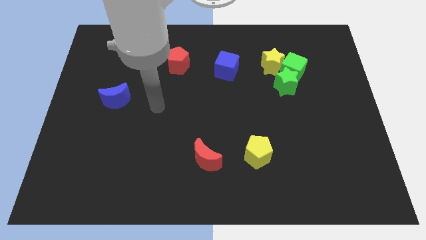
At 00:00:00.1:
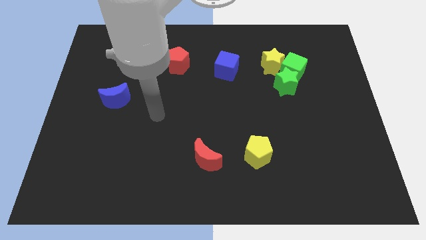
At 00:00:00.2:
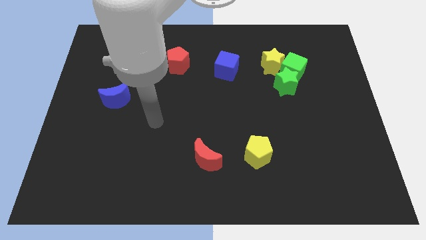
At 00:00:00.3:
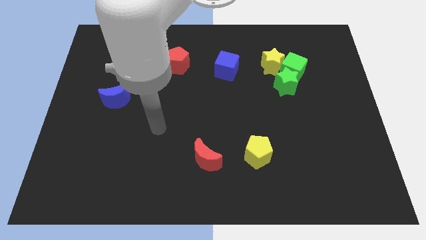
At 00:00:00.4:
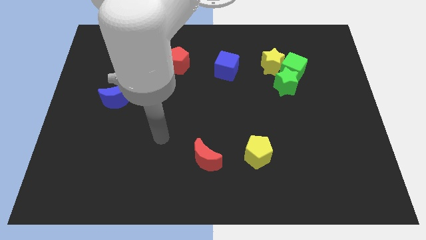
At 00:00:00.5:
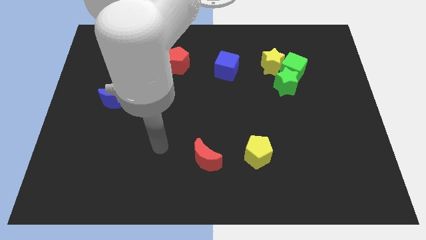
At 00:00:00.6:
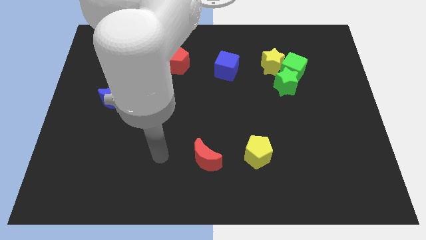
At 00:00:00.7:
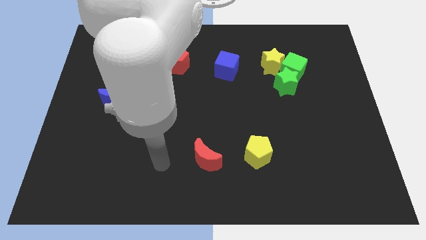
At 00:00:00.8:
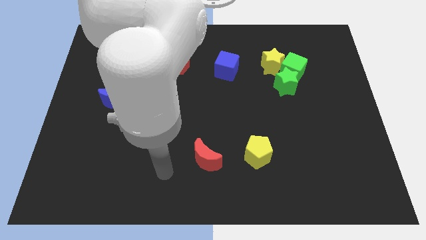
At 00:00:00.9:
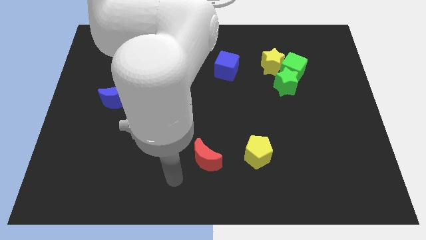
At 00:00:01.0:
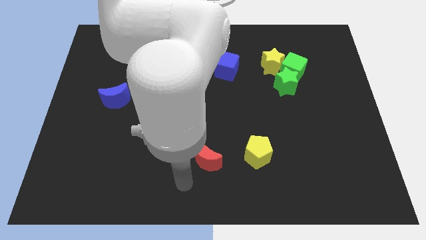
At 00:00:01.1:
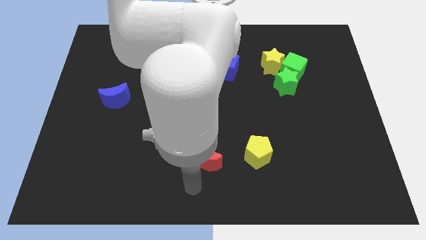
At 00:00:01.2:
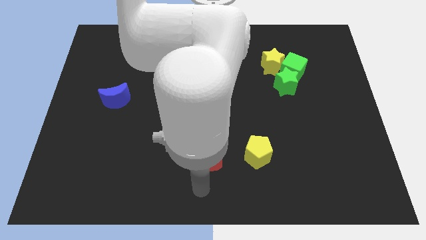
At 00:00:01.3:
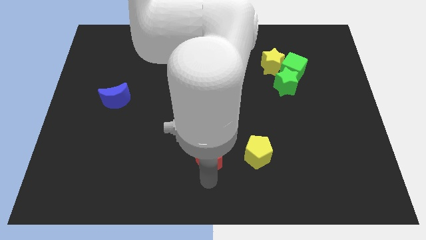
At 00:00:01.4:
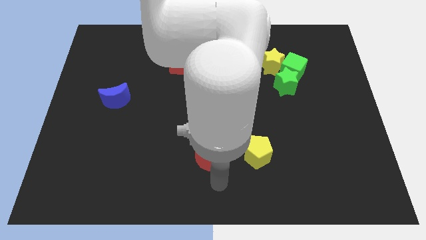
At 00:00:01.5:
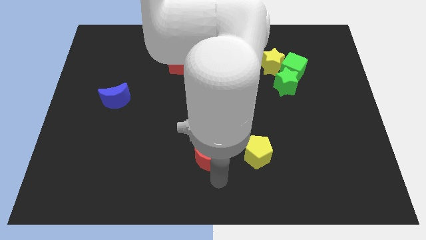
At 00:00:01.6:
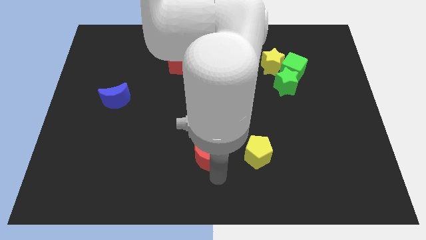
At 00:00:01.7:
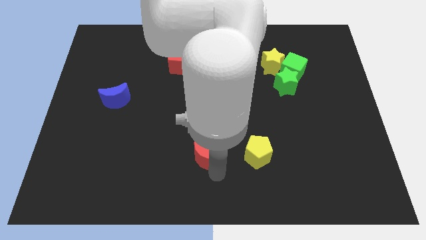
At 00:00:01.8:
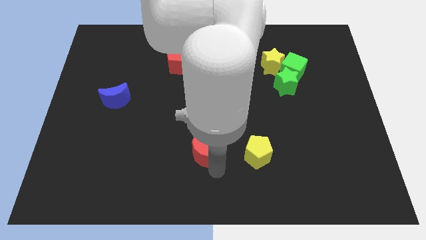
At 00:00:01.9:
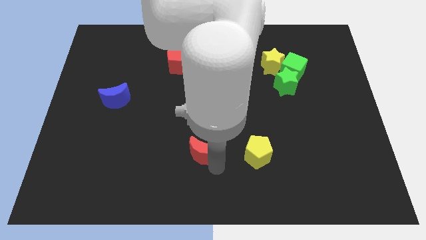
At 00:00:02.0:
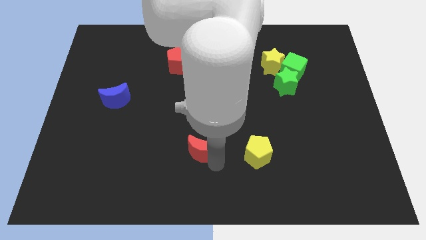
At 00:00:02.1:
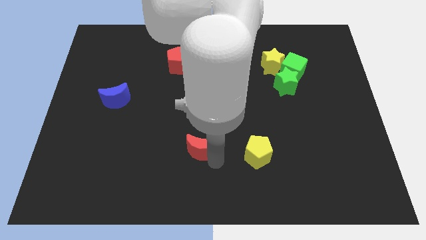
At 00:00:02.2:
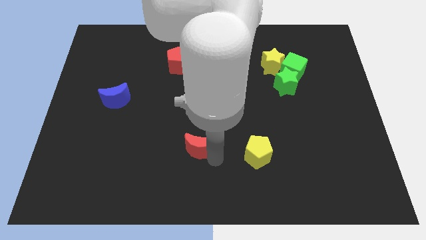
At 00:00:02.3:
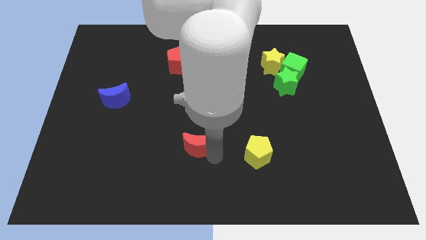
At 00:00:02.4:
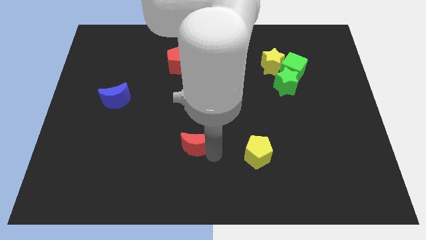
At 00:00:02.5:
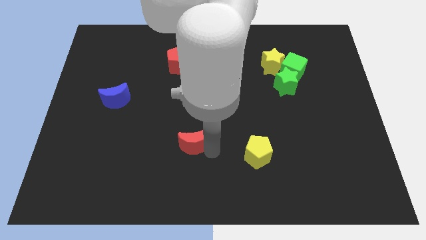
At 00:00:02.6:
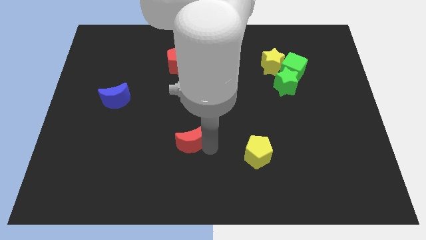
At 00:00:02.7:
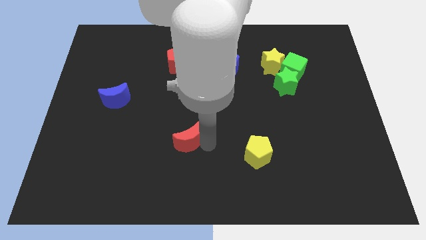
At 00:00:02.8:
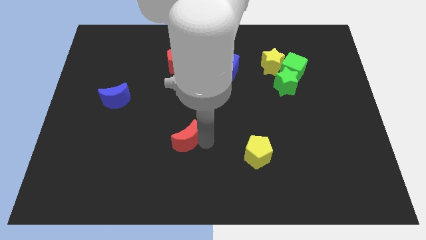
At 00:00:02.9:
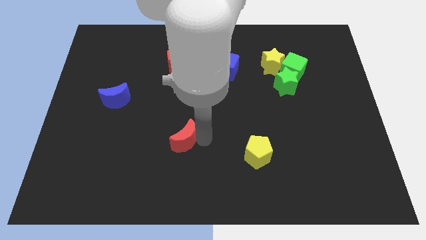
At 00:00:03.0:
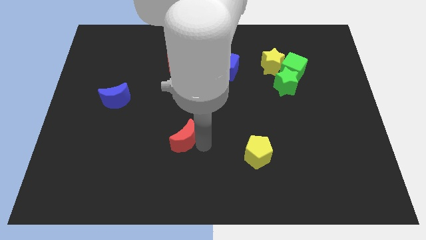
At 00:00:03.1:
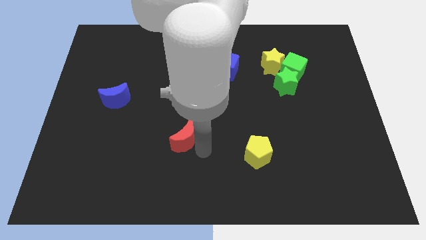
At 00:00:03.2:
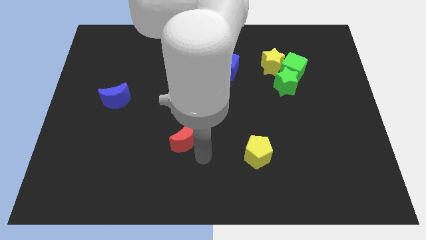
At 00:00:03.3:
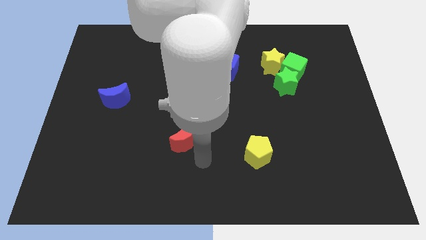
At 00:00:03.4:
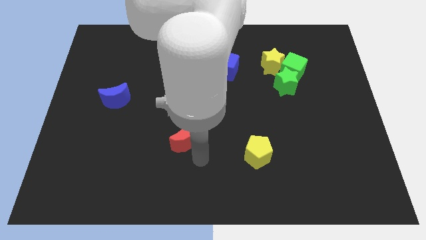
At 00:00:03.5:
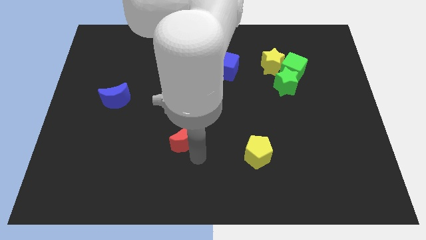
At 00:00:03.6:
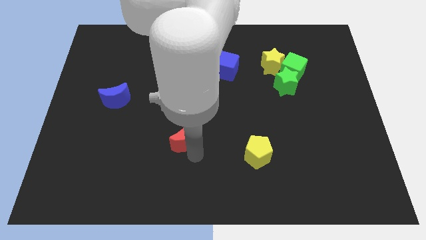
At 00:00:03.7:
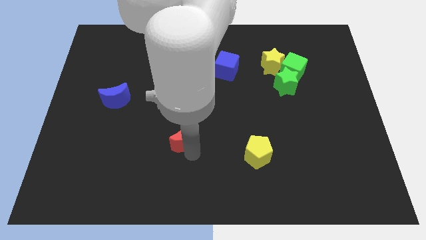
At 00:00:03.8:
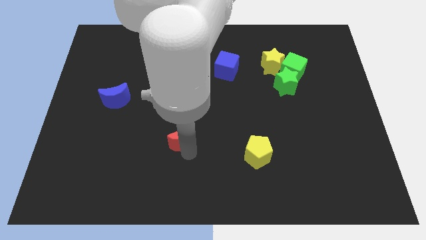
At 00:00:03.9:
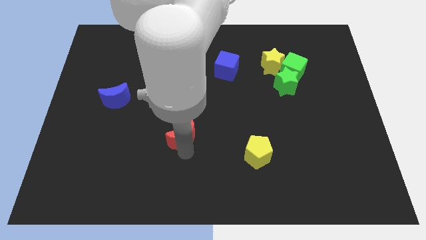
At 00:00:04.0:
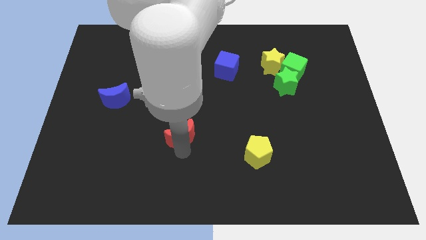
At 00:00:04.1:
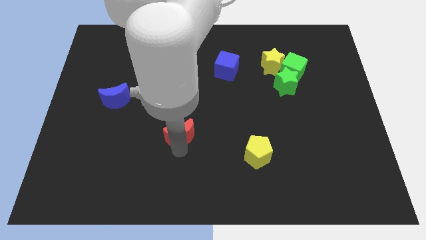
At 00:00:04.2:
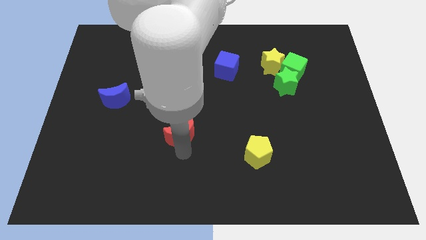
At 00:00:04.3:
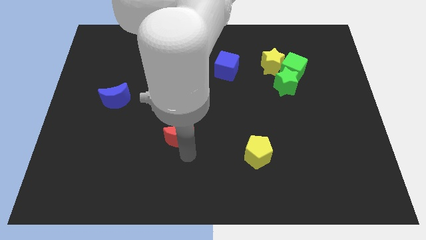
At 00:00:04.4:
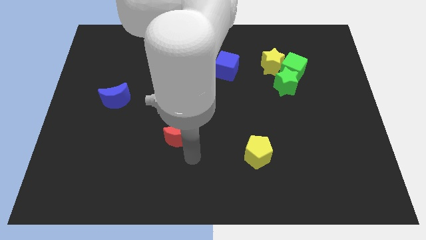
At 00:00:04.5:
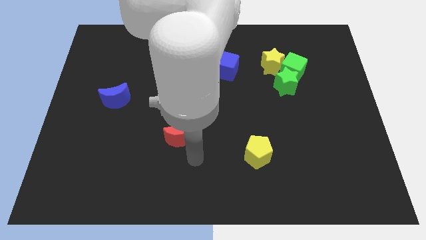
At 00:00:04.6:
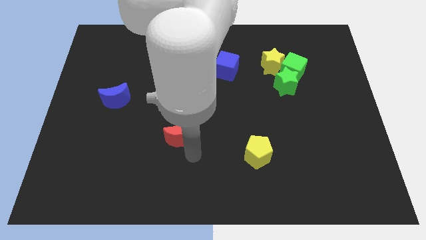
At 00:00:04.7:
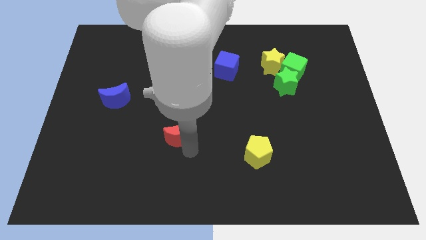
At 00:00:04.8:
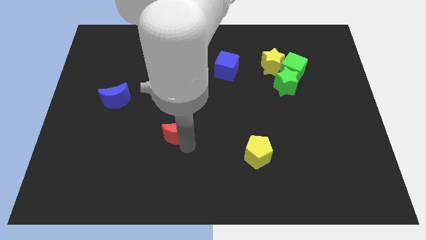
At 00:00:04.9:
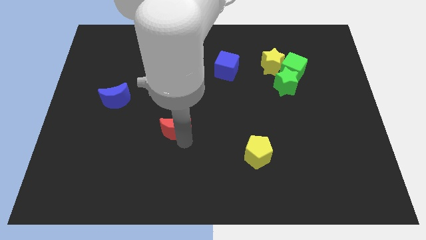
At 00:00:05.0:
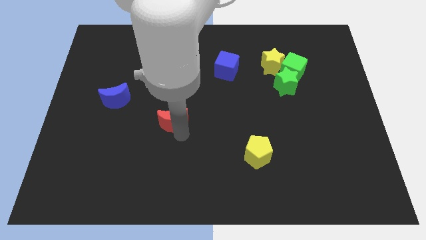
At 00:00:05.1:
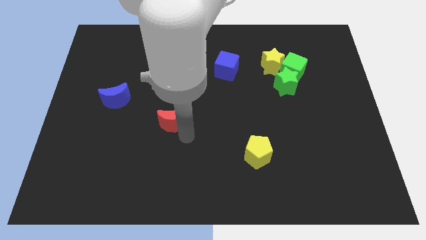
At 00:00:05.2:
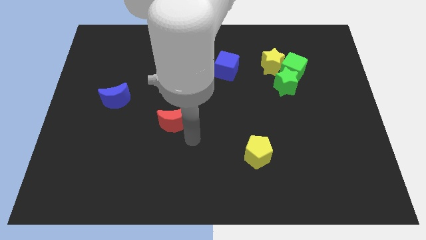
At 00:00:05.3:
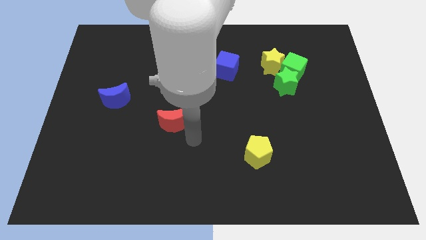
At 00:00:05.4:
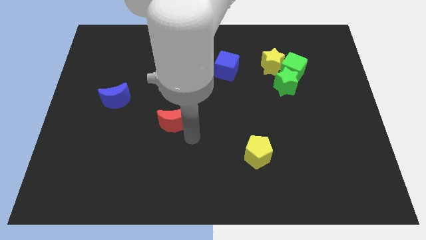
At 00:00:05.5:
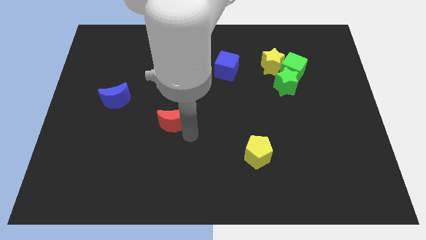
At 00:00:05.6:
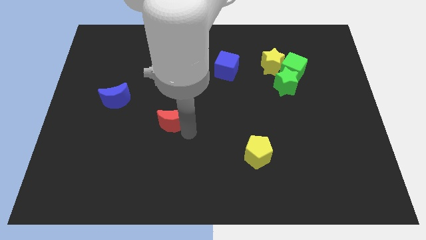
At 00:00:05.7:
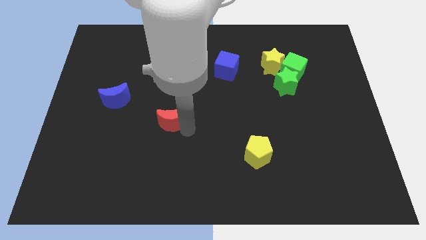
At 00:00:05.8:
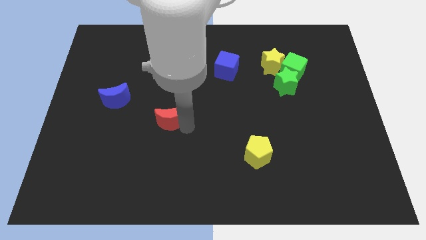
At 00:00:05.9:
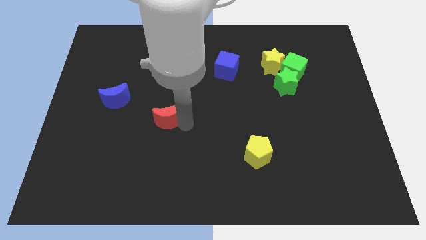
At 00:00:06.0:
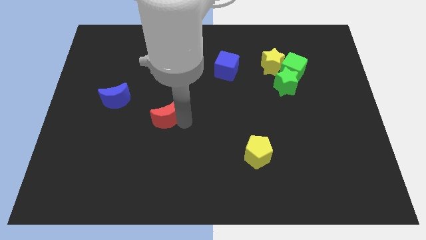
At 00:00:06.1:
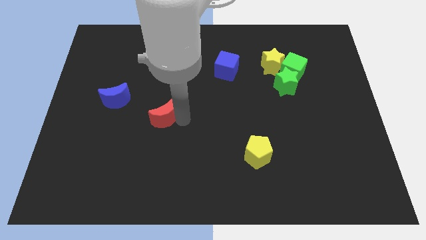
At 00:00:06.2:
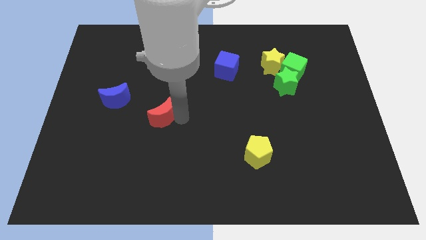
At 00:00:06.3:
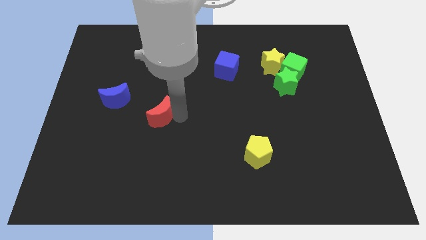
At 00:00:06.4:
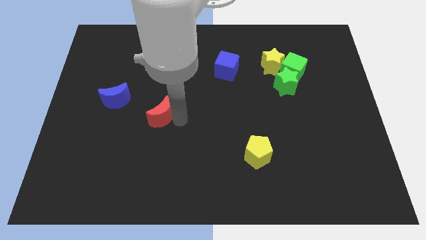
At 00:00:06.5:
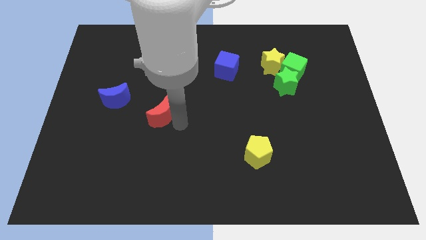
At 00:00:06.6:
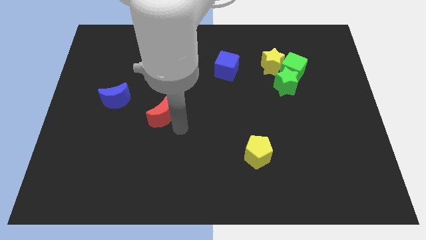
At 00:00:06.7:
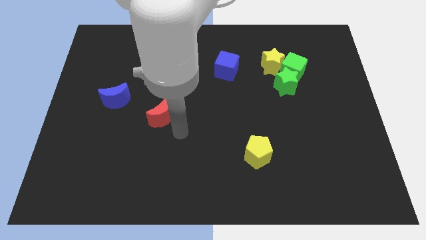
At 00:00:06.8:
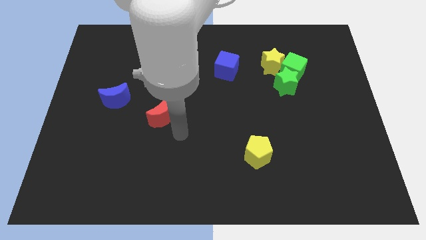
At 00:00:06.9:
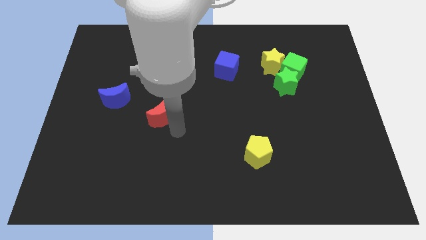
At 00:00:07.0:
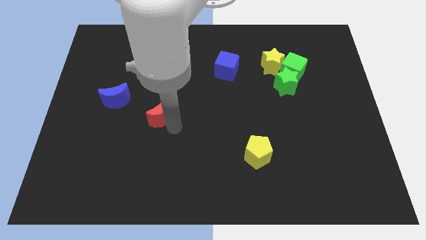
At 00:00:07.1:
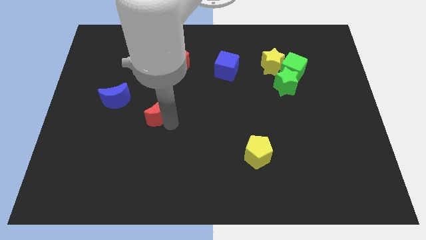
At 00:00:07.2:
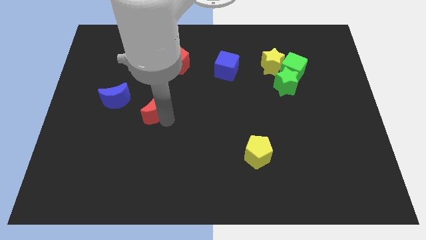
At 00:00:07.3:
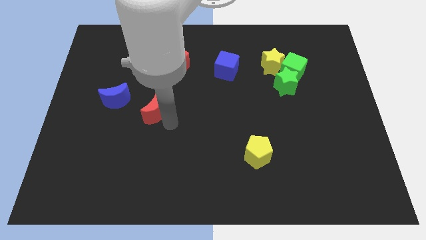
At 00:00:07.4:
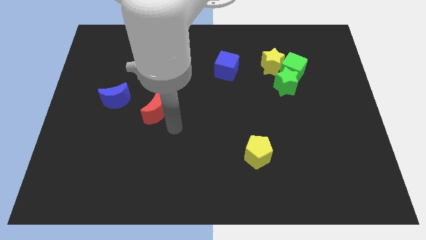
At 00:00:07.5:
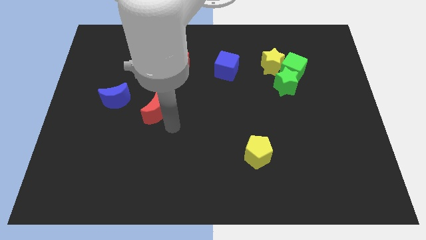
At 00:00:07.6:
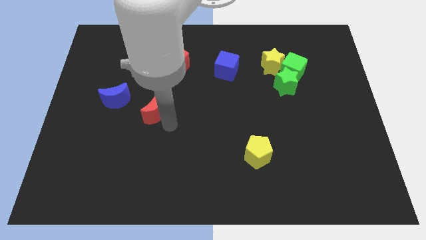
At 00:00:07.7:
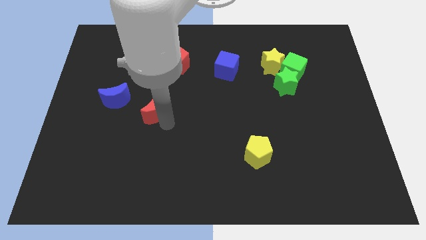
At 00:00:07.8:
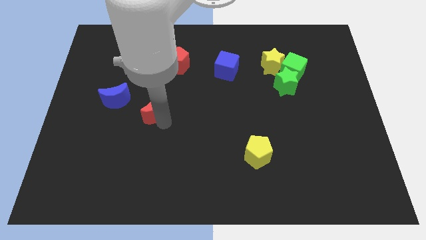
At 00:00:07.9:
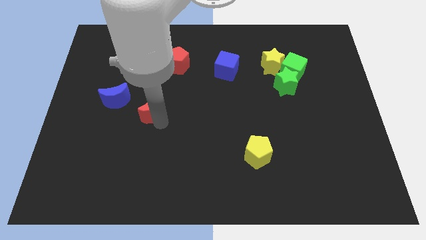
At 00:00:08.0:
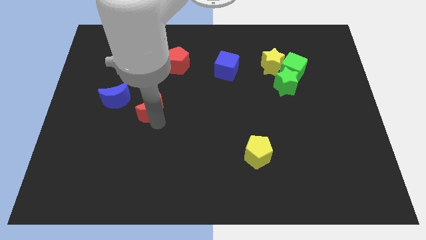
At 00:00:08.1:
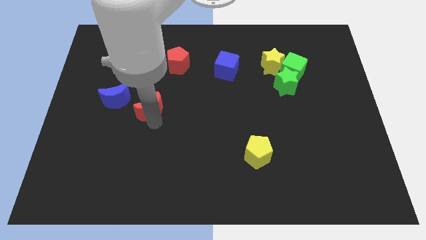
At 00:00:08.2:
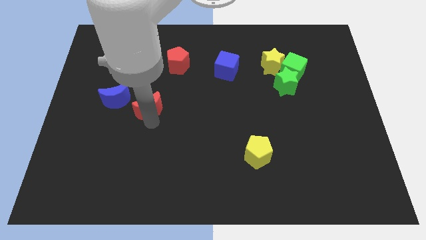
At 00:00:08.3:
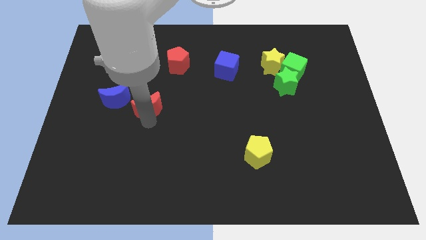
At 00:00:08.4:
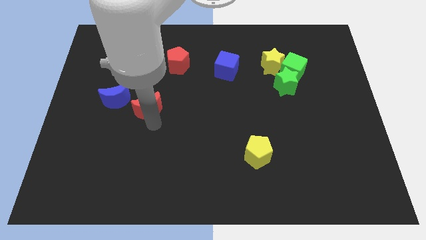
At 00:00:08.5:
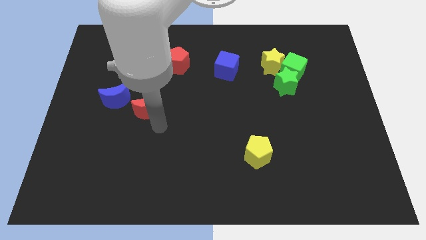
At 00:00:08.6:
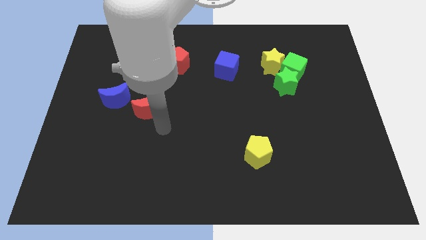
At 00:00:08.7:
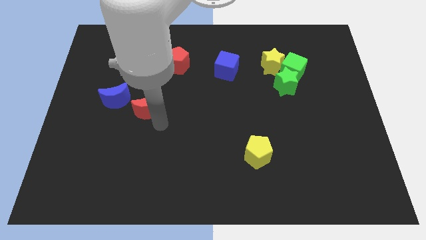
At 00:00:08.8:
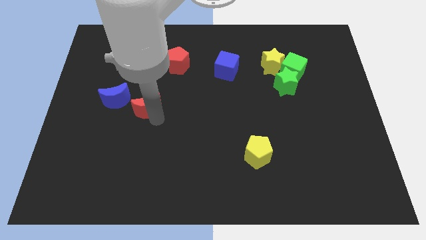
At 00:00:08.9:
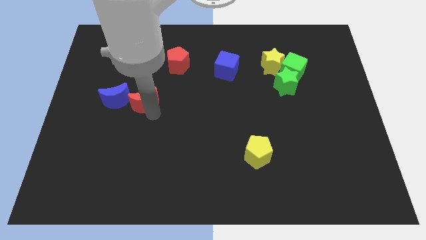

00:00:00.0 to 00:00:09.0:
push the red moon up and left diagonally
